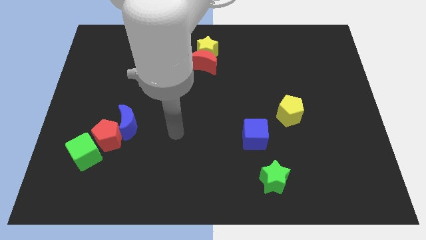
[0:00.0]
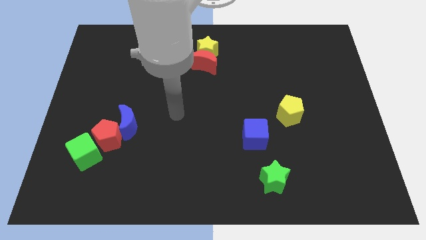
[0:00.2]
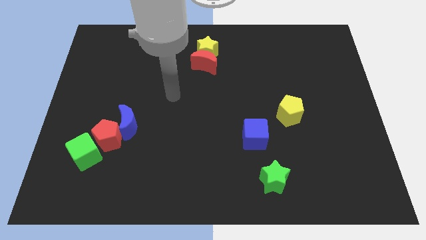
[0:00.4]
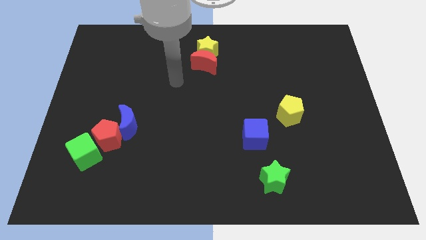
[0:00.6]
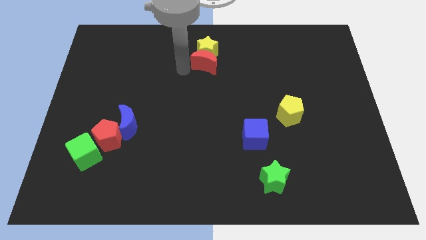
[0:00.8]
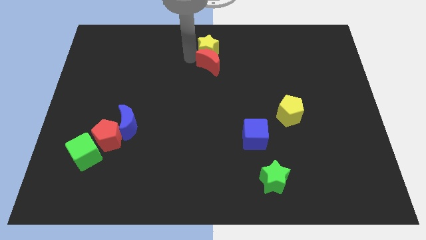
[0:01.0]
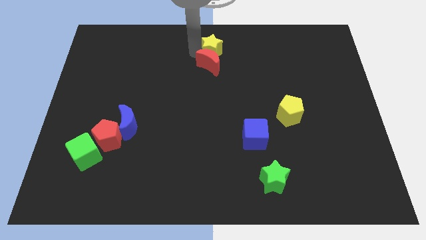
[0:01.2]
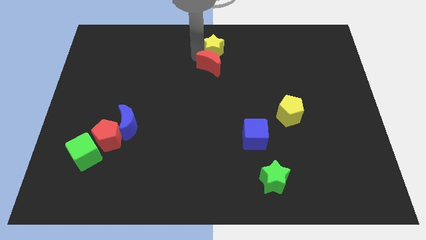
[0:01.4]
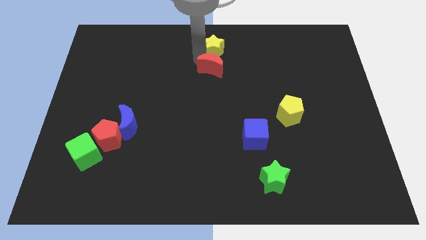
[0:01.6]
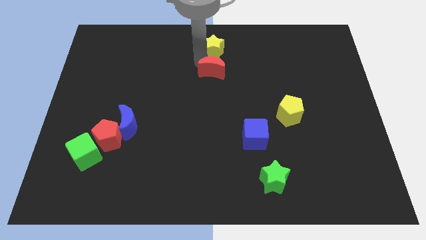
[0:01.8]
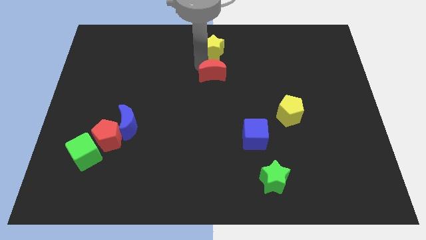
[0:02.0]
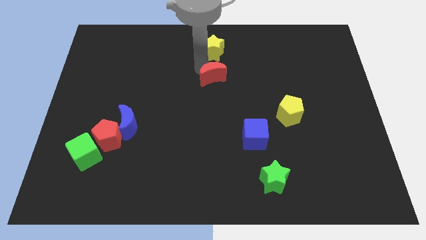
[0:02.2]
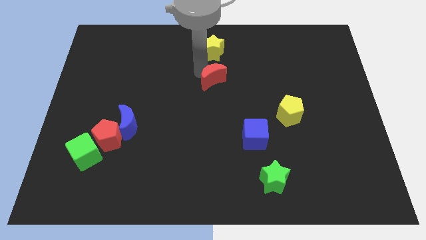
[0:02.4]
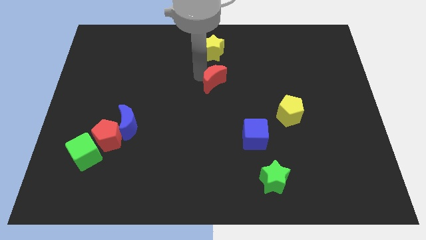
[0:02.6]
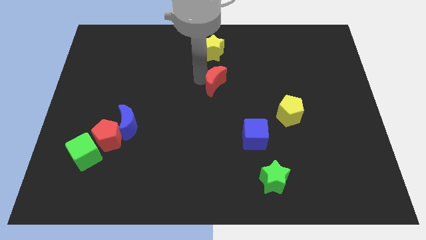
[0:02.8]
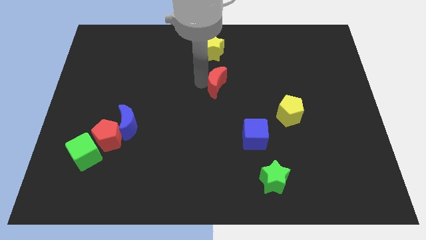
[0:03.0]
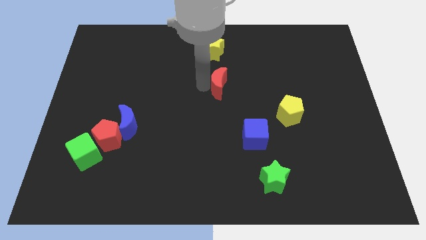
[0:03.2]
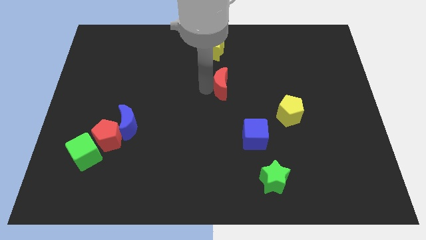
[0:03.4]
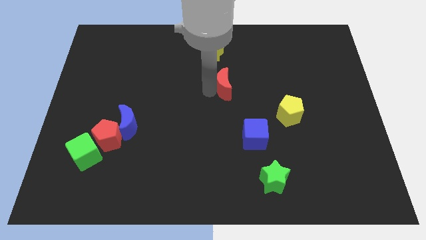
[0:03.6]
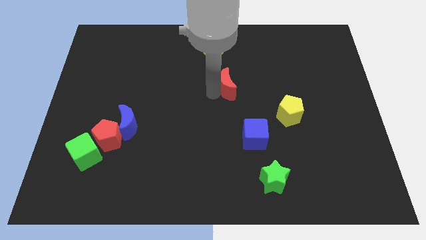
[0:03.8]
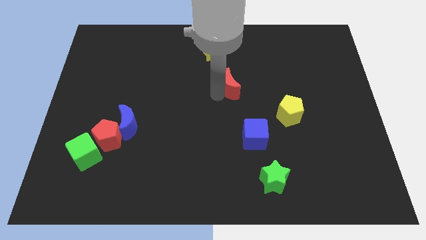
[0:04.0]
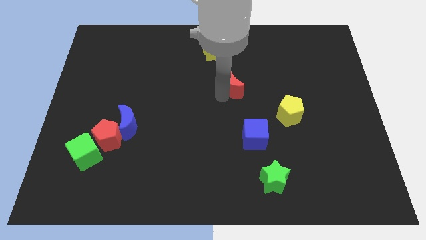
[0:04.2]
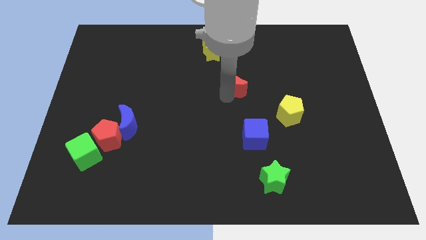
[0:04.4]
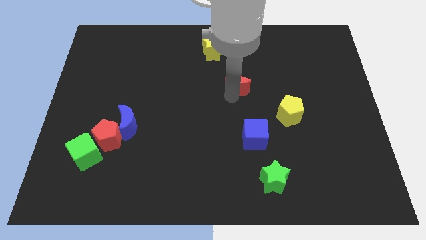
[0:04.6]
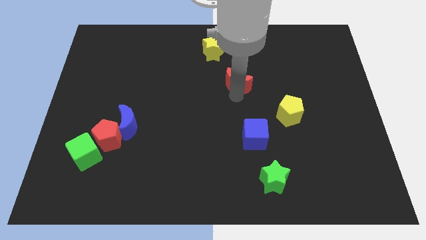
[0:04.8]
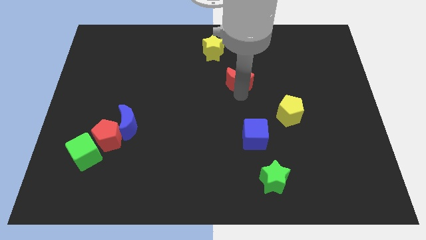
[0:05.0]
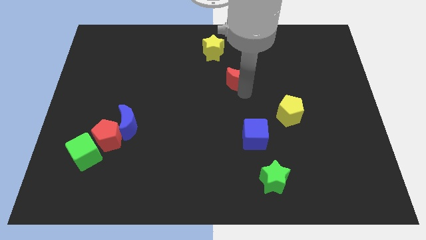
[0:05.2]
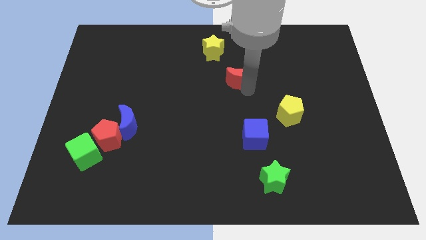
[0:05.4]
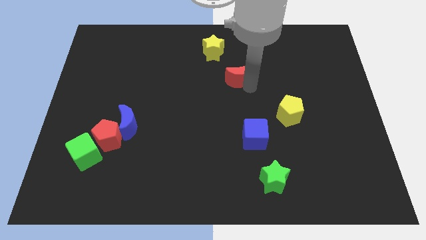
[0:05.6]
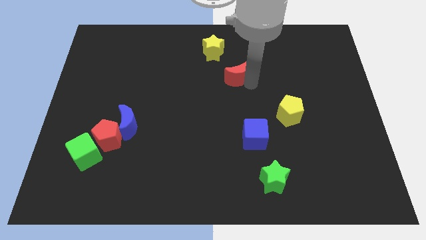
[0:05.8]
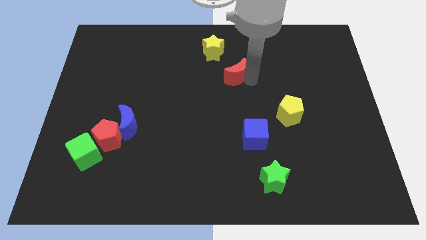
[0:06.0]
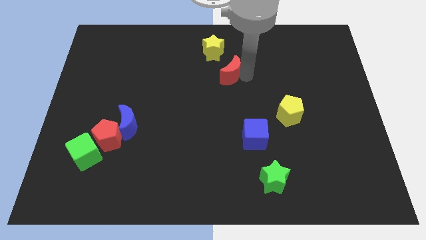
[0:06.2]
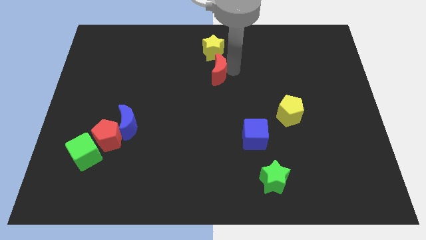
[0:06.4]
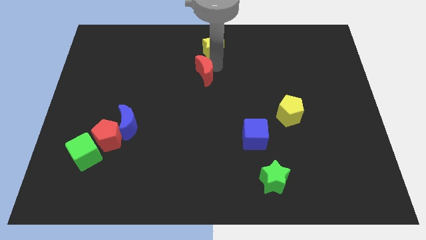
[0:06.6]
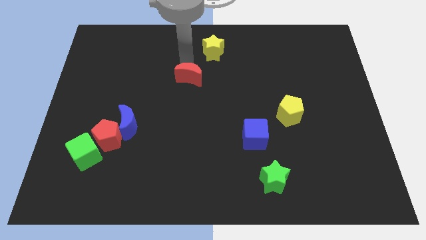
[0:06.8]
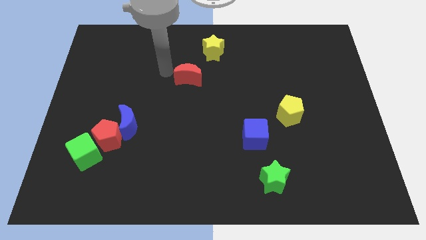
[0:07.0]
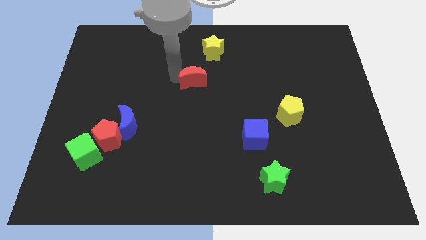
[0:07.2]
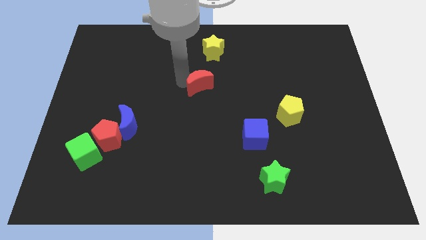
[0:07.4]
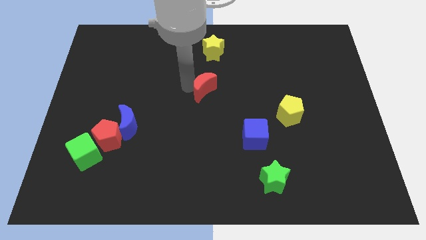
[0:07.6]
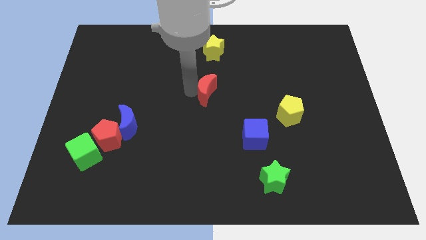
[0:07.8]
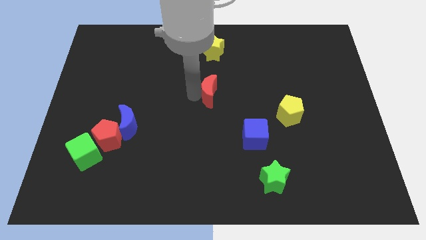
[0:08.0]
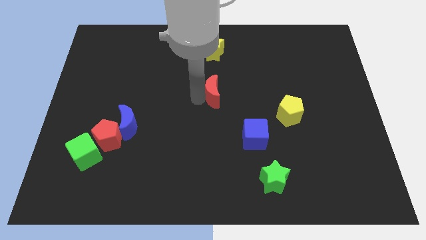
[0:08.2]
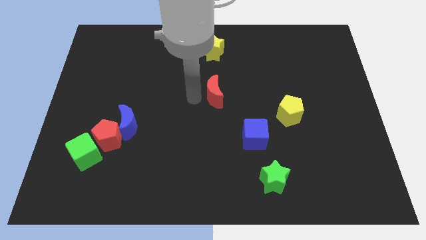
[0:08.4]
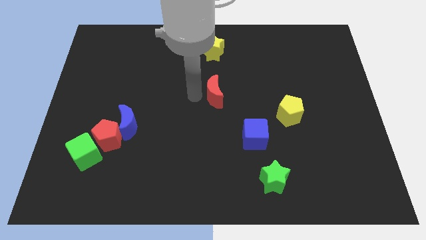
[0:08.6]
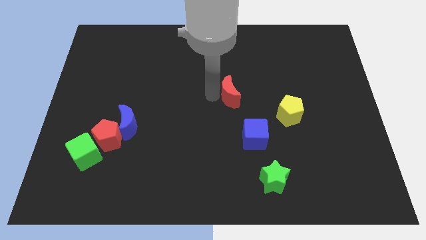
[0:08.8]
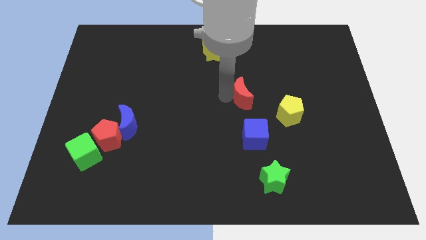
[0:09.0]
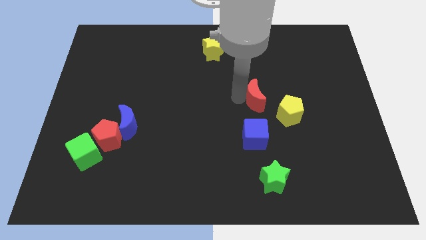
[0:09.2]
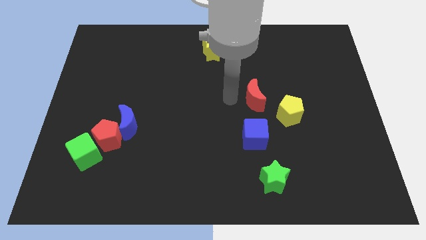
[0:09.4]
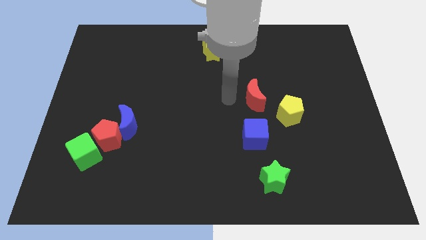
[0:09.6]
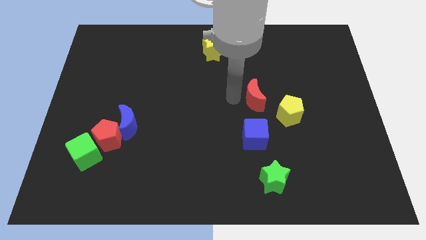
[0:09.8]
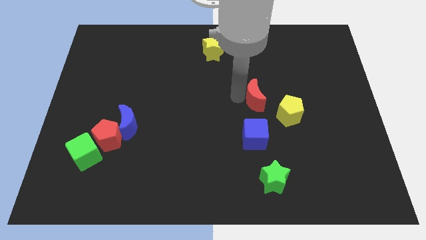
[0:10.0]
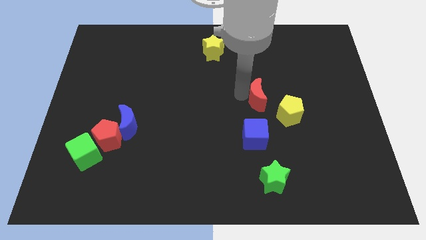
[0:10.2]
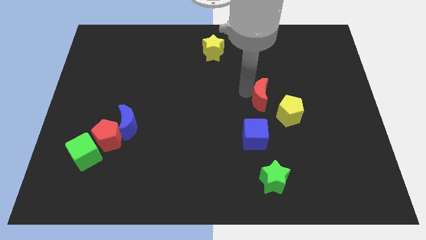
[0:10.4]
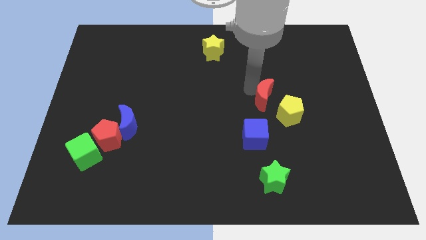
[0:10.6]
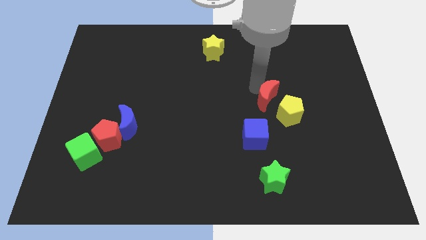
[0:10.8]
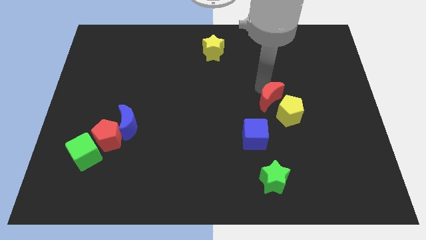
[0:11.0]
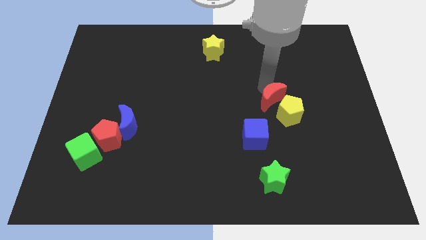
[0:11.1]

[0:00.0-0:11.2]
push the red moon towards the yellow pentagon
